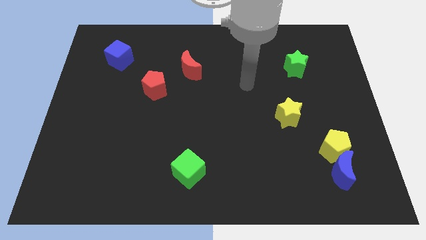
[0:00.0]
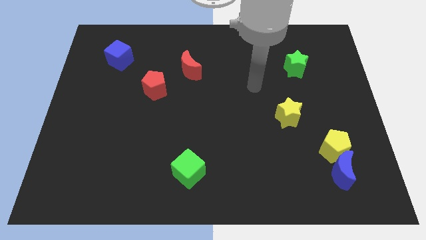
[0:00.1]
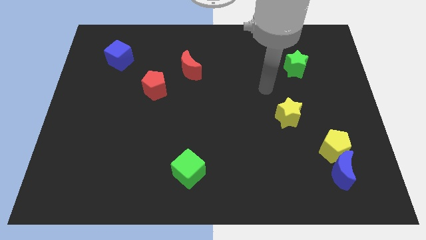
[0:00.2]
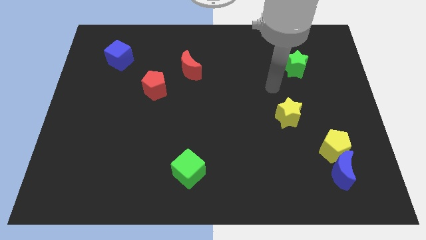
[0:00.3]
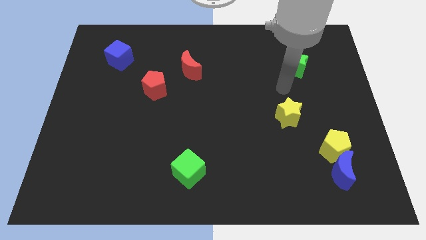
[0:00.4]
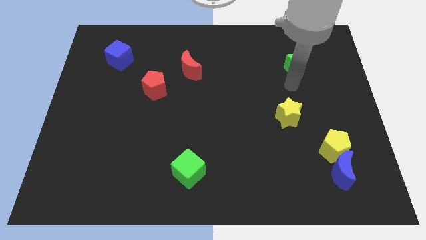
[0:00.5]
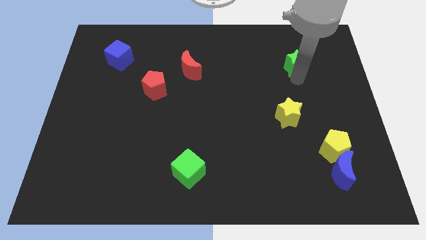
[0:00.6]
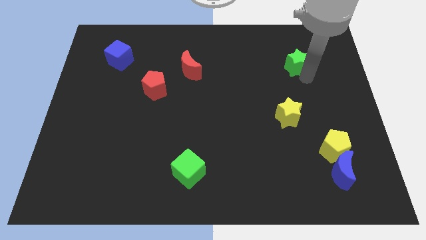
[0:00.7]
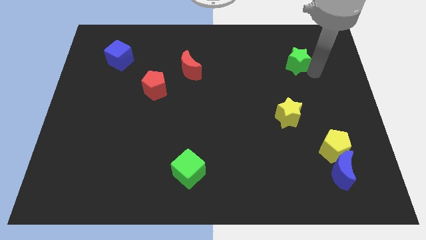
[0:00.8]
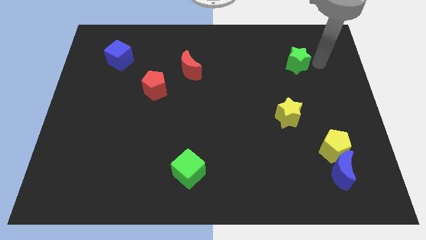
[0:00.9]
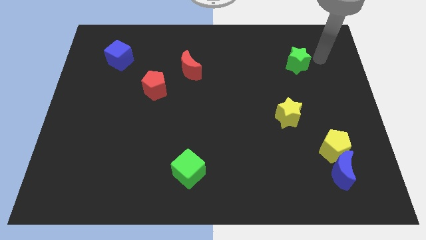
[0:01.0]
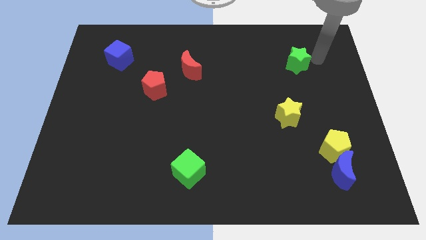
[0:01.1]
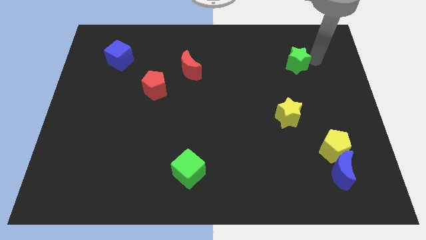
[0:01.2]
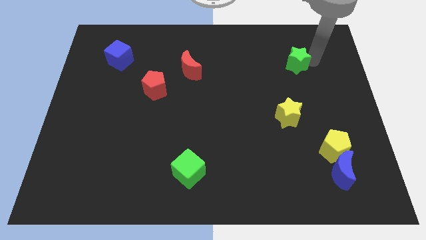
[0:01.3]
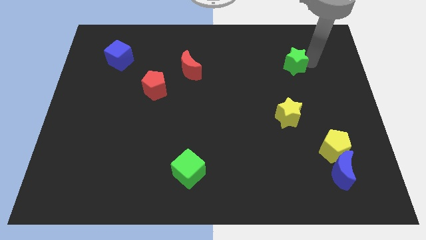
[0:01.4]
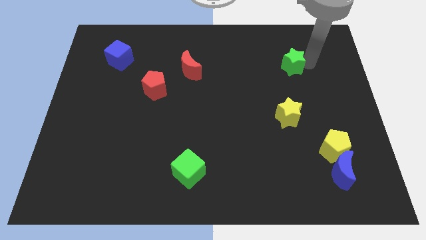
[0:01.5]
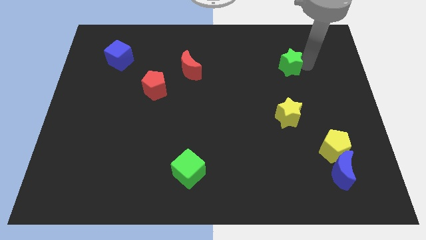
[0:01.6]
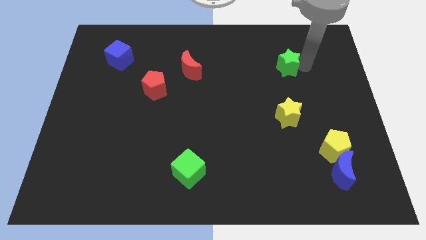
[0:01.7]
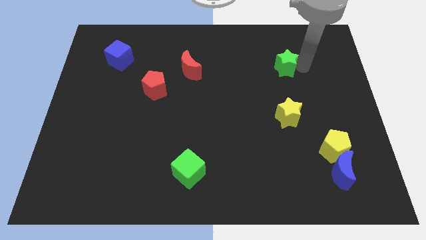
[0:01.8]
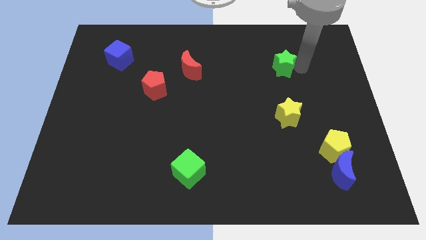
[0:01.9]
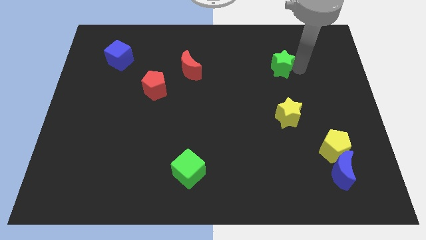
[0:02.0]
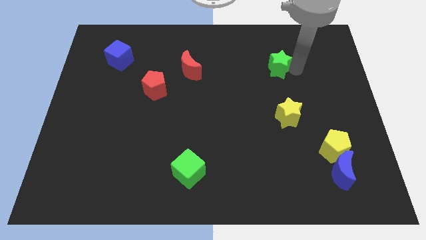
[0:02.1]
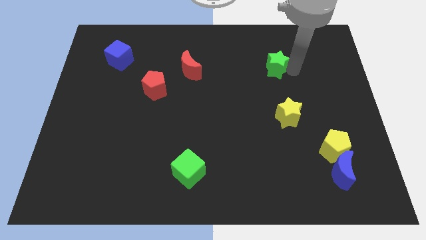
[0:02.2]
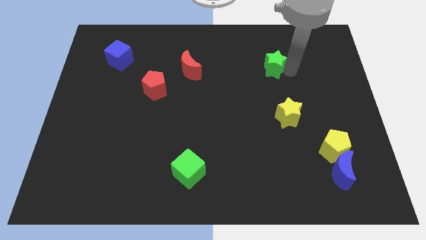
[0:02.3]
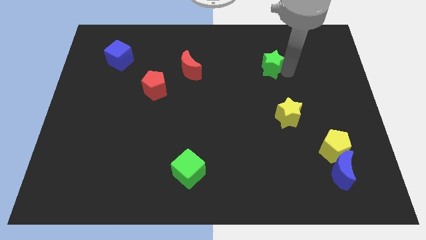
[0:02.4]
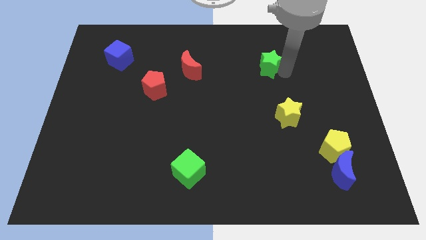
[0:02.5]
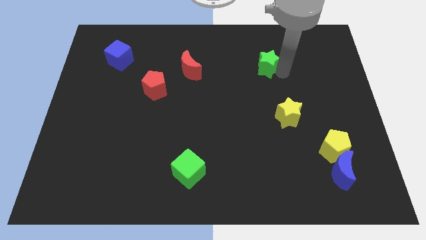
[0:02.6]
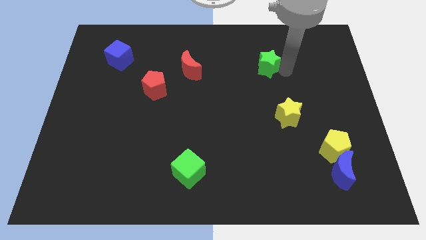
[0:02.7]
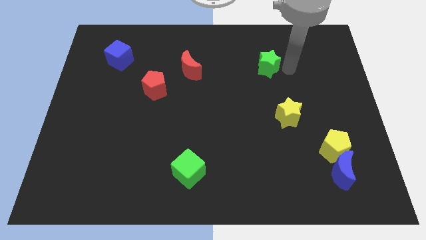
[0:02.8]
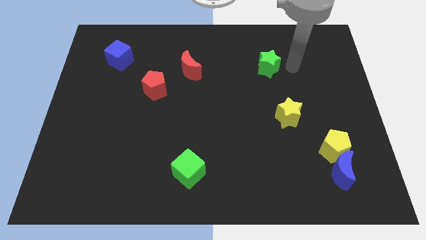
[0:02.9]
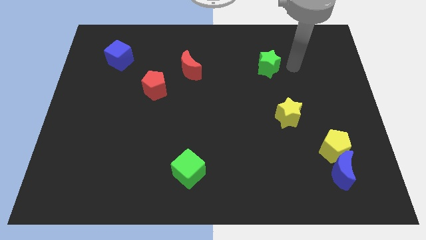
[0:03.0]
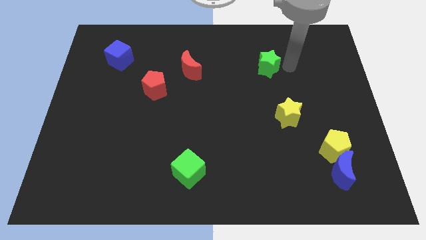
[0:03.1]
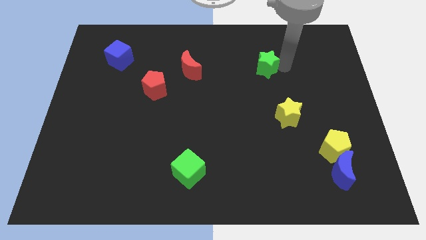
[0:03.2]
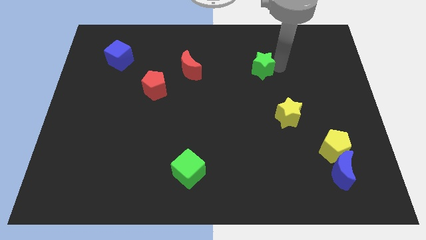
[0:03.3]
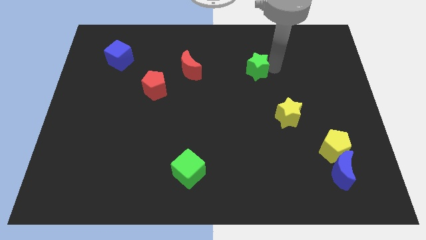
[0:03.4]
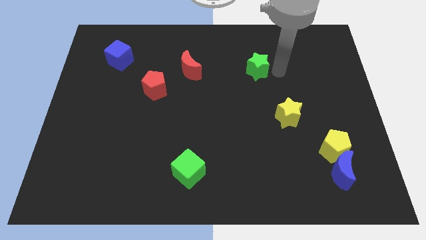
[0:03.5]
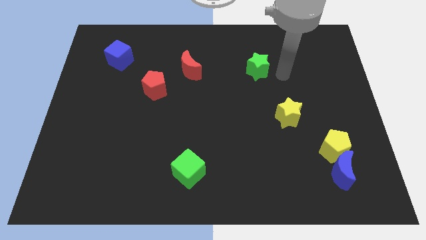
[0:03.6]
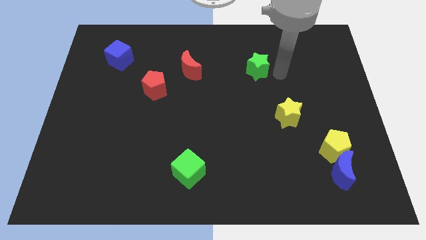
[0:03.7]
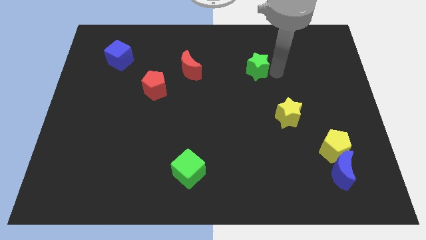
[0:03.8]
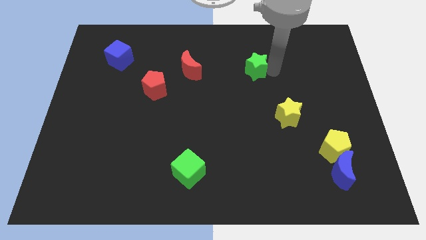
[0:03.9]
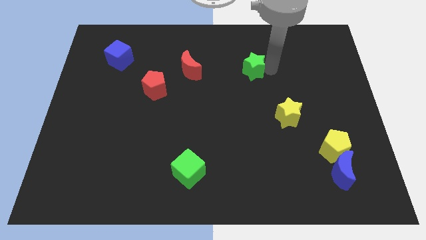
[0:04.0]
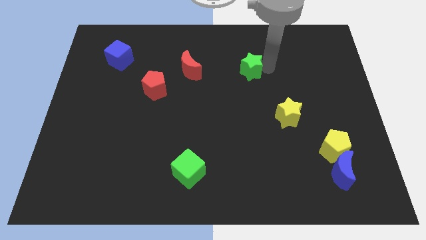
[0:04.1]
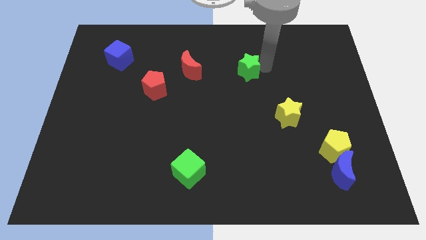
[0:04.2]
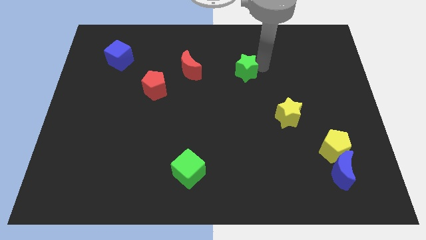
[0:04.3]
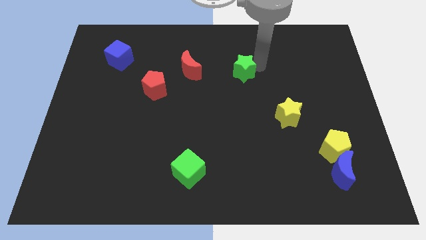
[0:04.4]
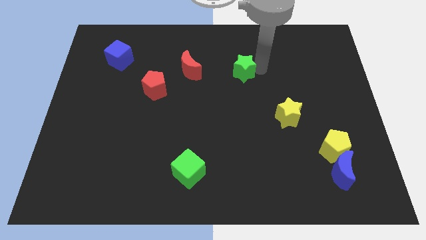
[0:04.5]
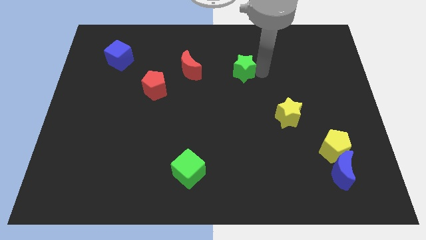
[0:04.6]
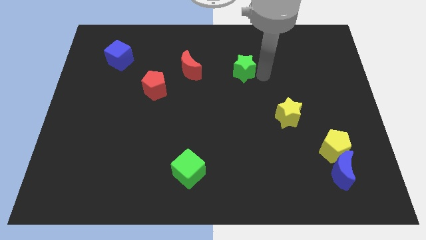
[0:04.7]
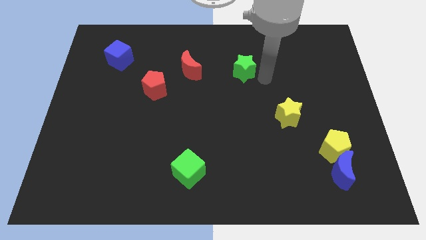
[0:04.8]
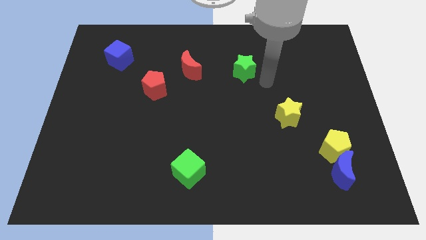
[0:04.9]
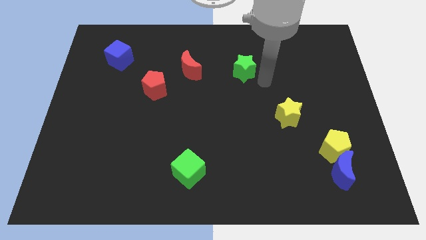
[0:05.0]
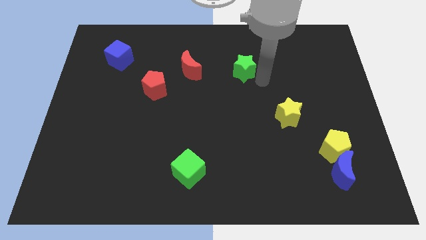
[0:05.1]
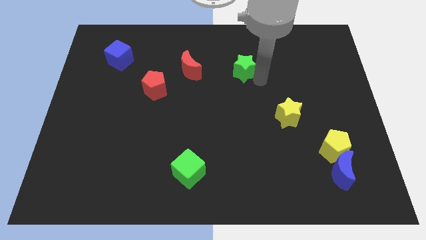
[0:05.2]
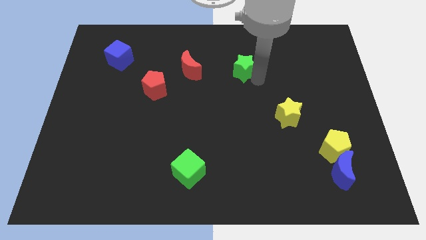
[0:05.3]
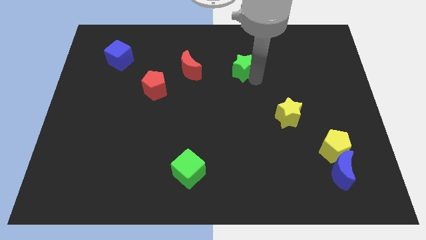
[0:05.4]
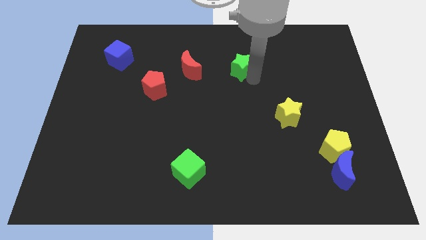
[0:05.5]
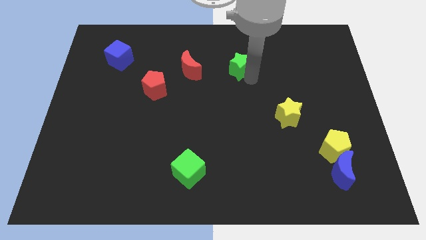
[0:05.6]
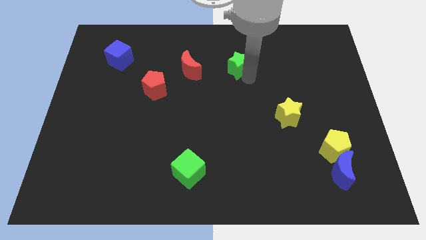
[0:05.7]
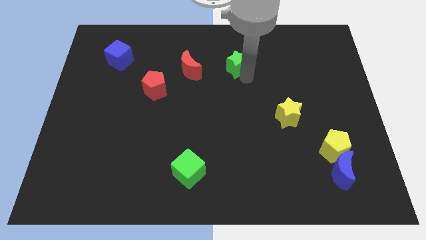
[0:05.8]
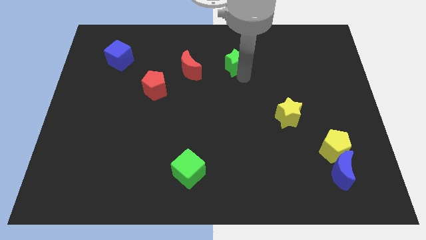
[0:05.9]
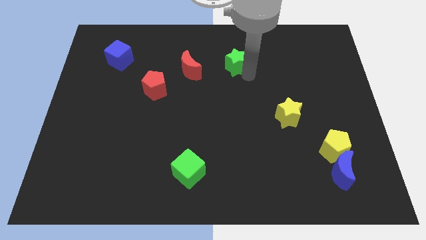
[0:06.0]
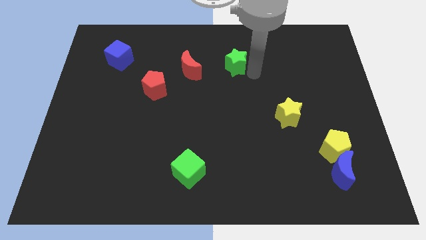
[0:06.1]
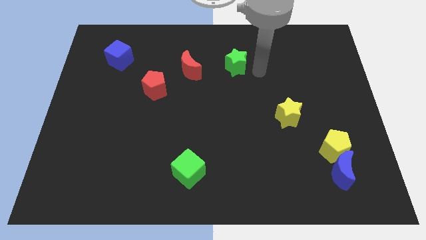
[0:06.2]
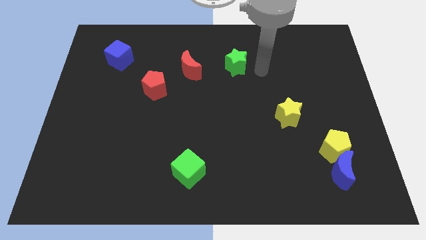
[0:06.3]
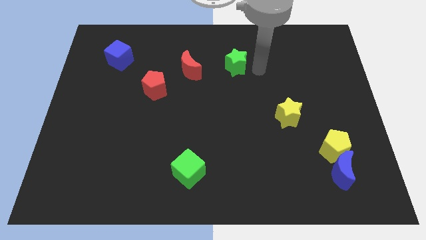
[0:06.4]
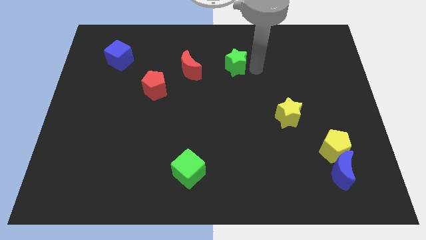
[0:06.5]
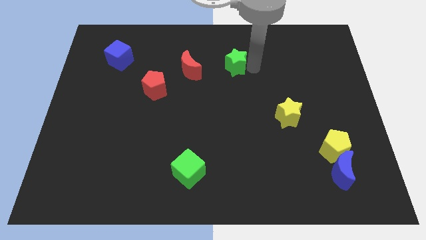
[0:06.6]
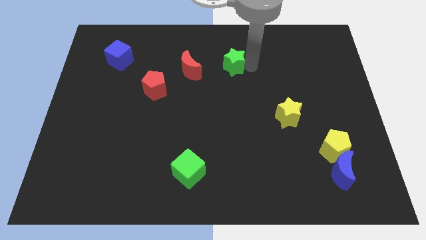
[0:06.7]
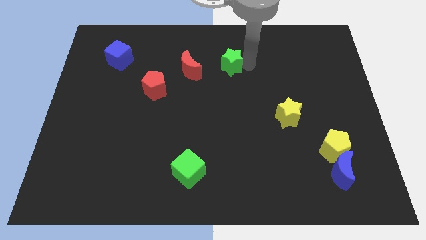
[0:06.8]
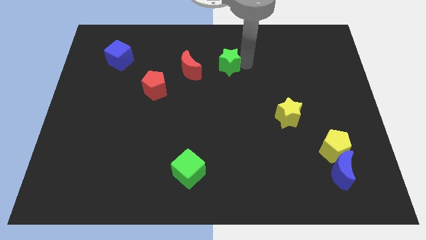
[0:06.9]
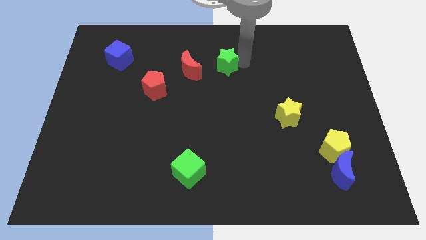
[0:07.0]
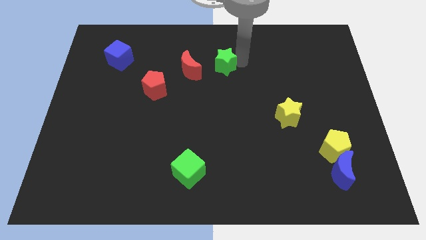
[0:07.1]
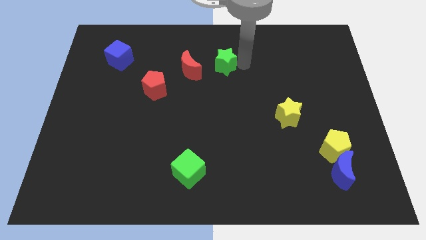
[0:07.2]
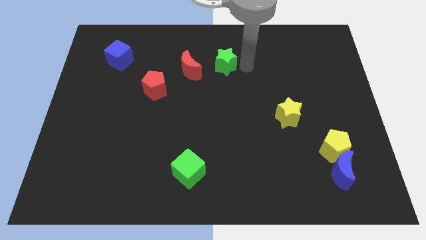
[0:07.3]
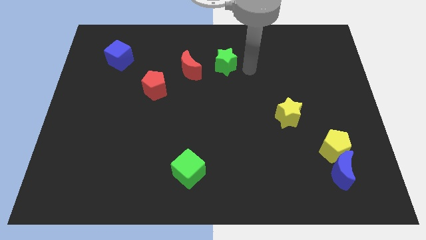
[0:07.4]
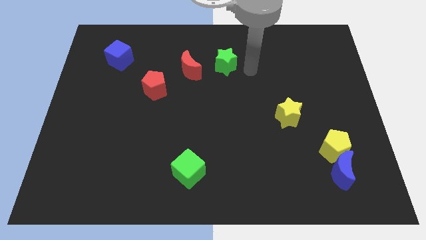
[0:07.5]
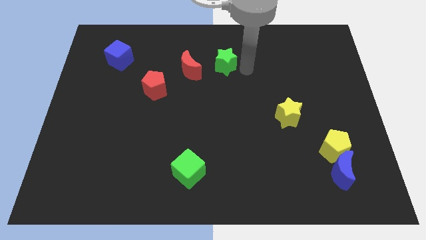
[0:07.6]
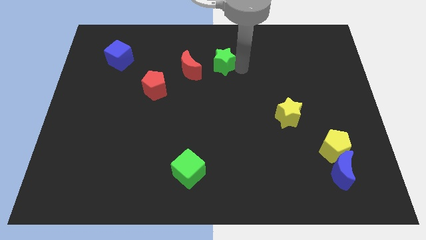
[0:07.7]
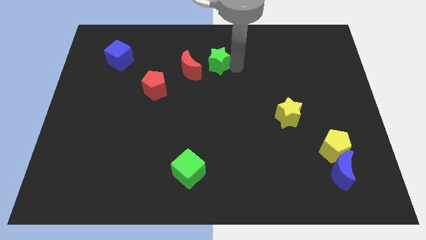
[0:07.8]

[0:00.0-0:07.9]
slide the green star left
